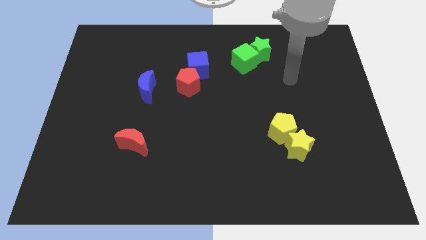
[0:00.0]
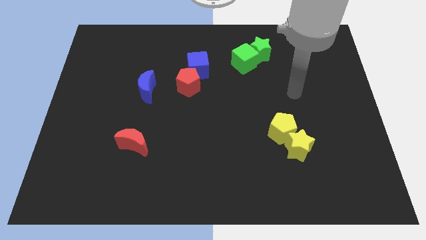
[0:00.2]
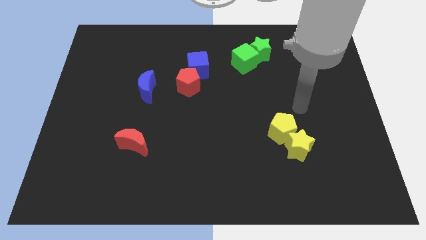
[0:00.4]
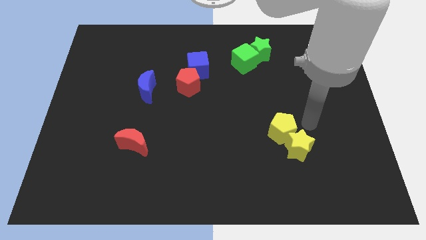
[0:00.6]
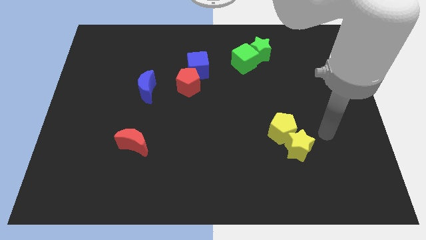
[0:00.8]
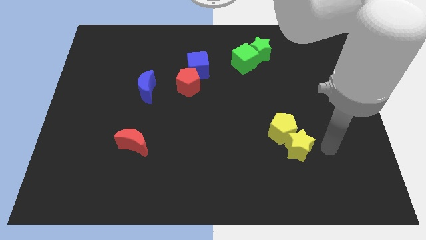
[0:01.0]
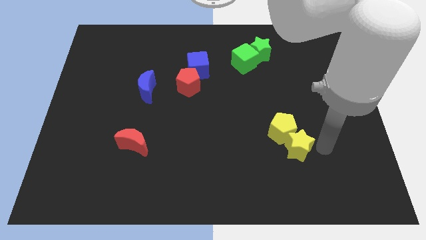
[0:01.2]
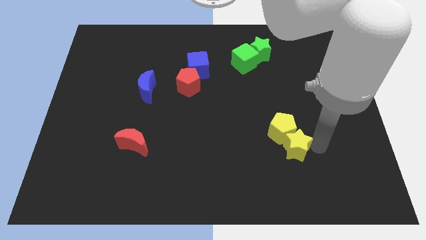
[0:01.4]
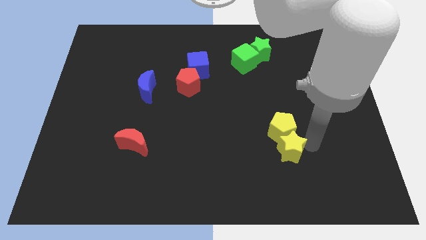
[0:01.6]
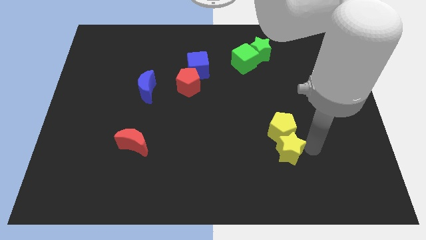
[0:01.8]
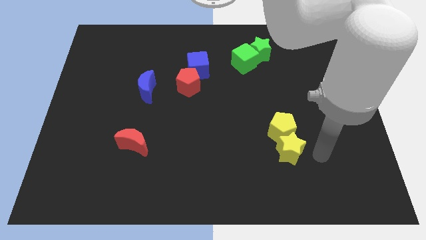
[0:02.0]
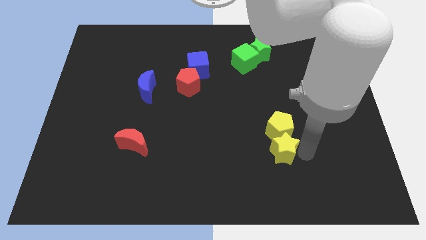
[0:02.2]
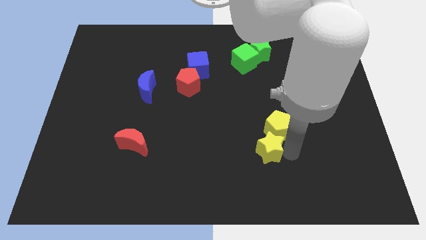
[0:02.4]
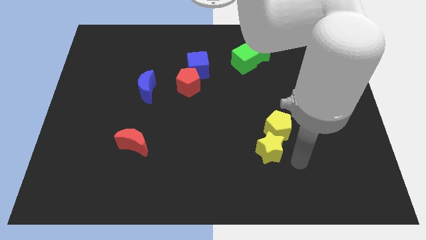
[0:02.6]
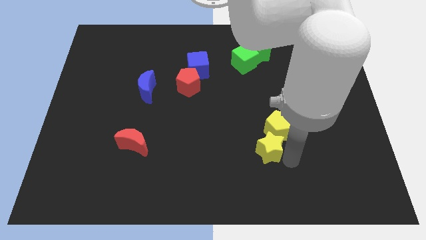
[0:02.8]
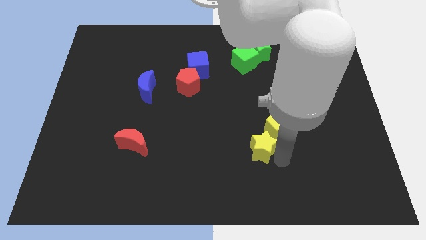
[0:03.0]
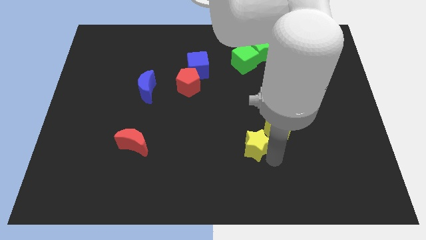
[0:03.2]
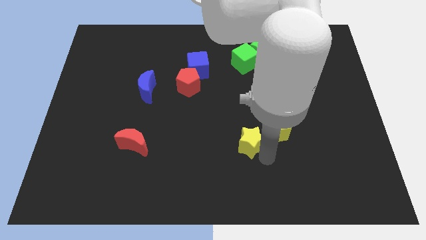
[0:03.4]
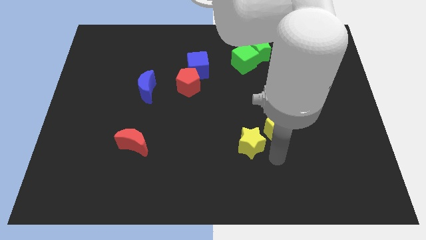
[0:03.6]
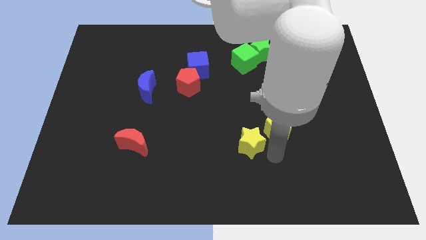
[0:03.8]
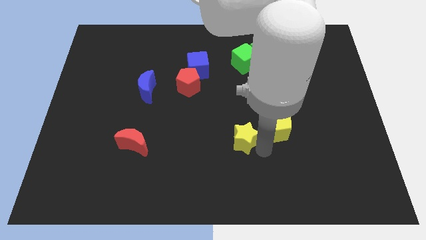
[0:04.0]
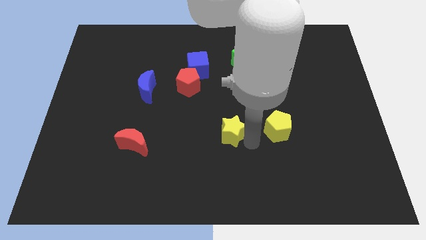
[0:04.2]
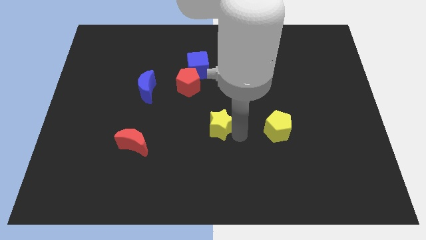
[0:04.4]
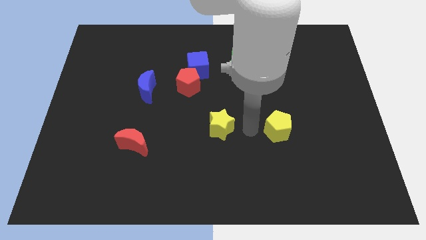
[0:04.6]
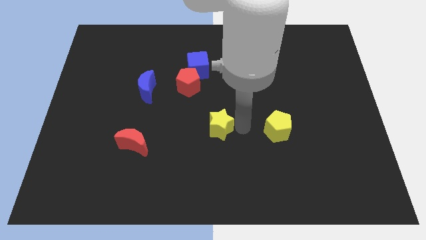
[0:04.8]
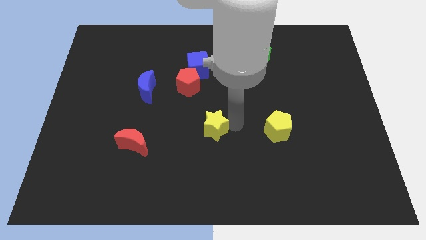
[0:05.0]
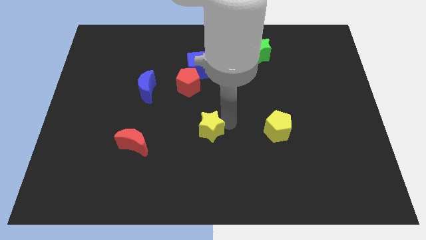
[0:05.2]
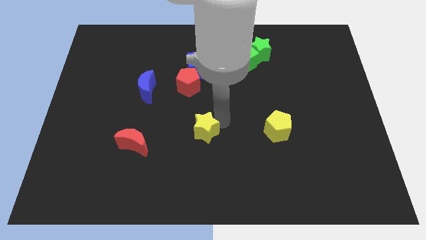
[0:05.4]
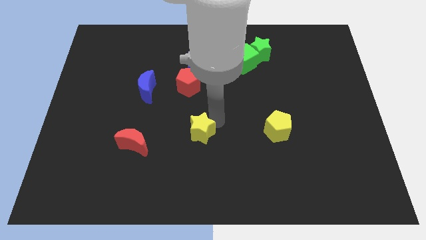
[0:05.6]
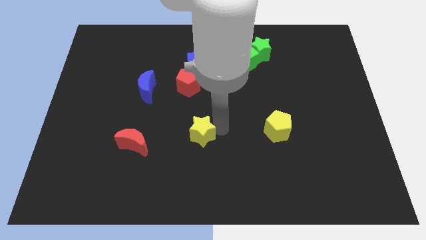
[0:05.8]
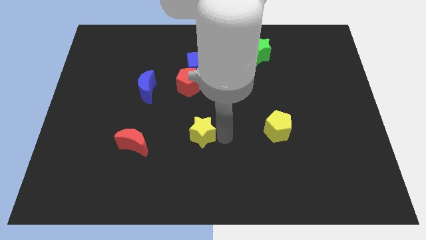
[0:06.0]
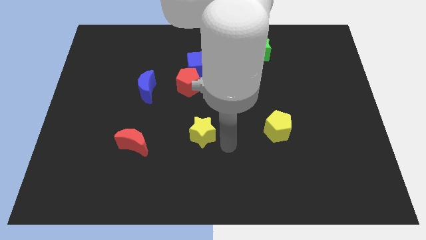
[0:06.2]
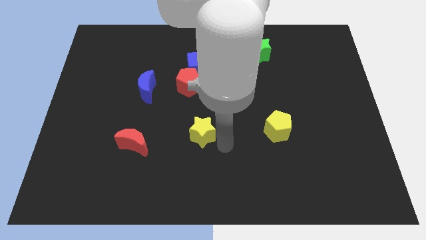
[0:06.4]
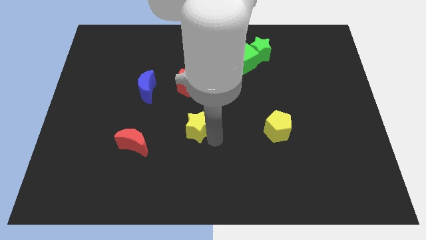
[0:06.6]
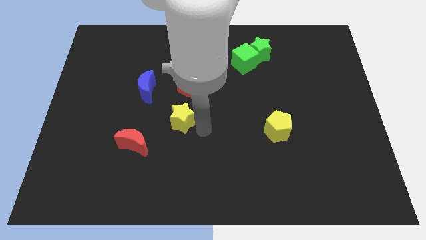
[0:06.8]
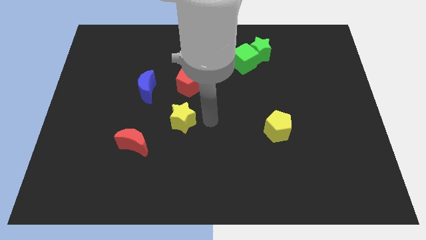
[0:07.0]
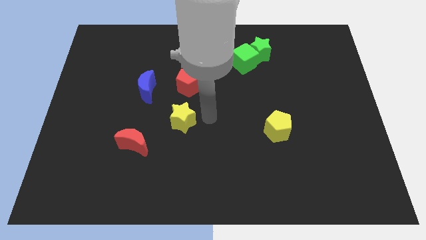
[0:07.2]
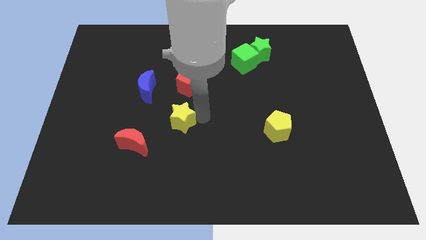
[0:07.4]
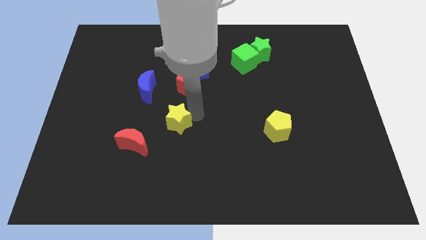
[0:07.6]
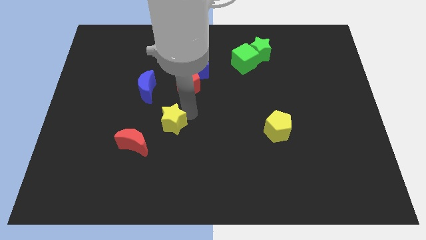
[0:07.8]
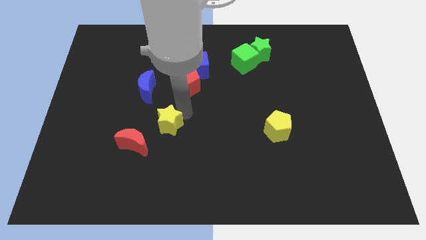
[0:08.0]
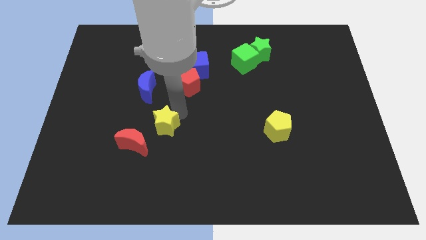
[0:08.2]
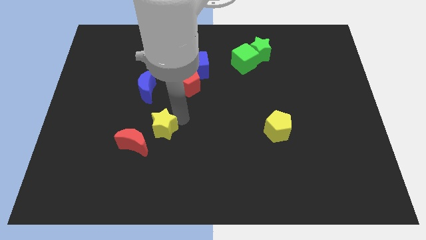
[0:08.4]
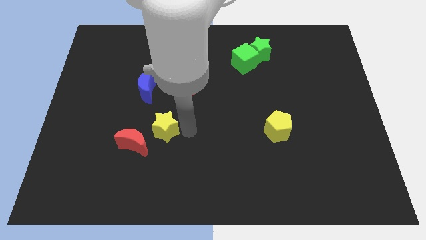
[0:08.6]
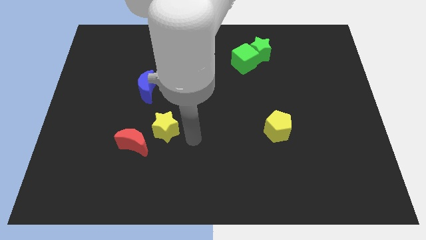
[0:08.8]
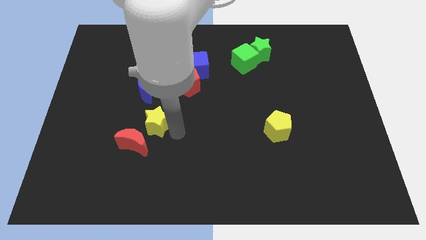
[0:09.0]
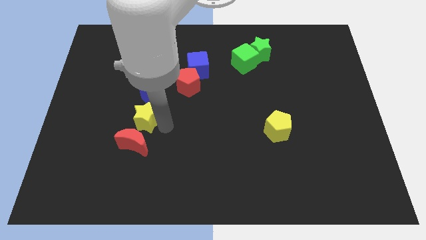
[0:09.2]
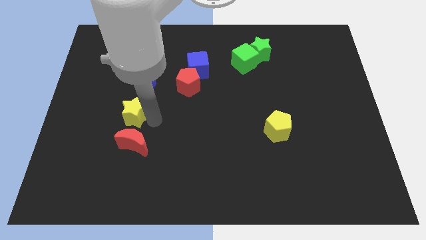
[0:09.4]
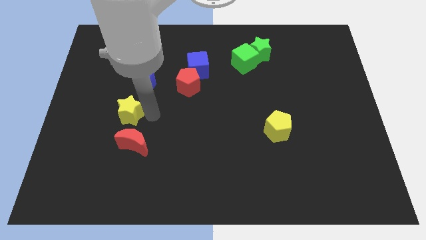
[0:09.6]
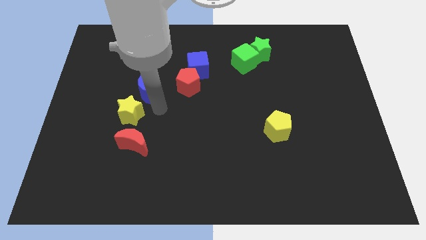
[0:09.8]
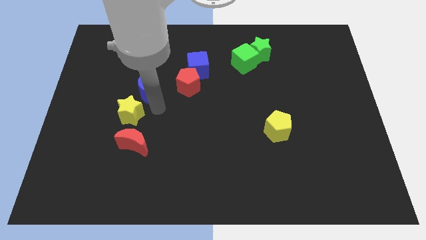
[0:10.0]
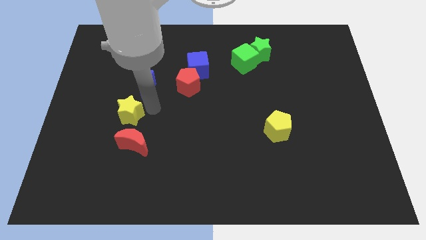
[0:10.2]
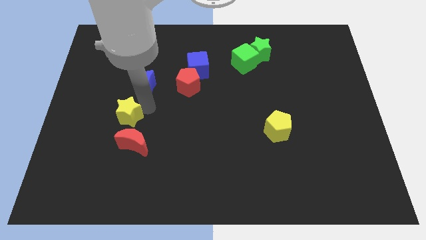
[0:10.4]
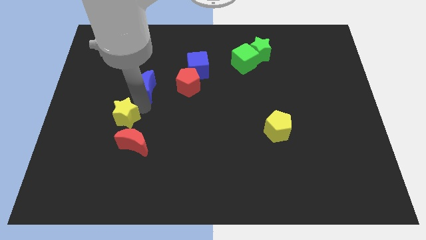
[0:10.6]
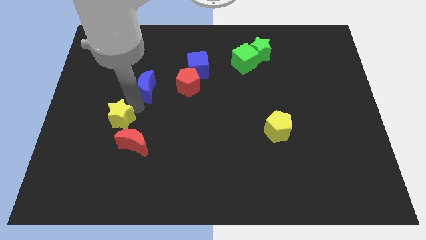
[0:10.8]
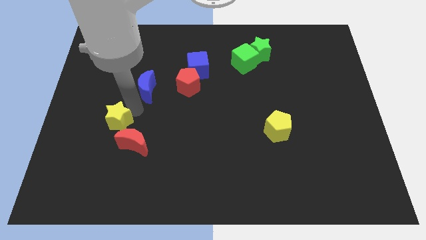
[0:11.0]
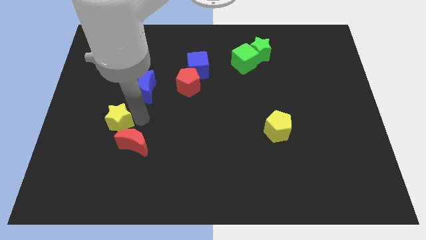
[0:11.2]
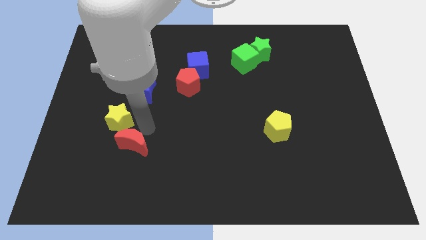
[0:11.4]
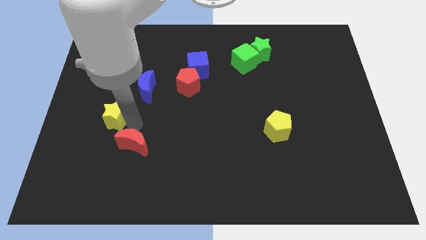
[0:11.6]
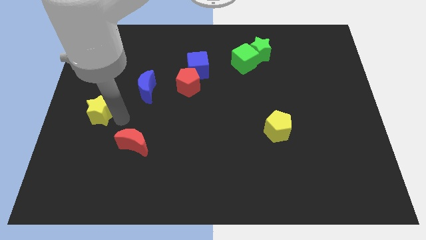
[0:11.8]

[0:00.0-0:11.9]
put the yellow star to the center left
